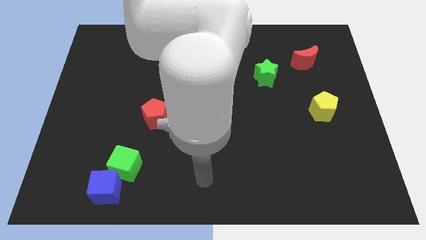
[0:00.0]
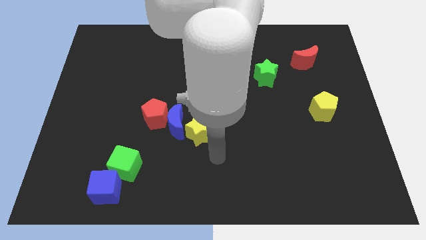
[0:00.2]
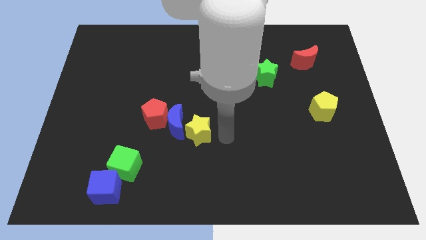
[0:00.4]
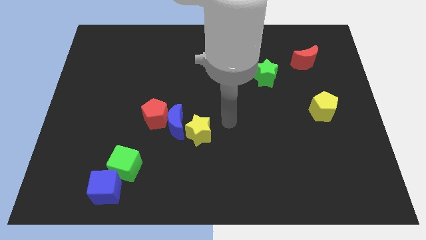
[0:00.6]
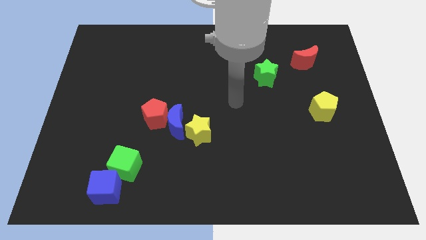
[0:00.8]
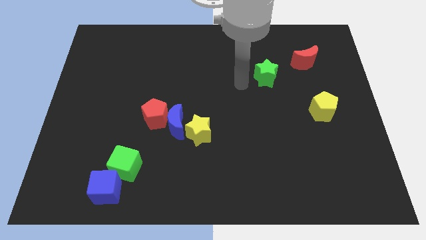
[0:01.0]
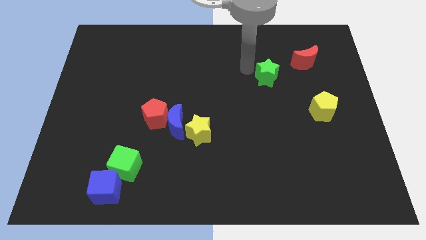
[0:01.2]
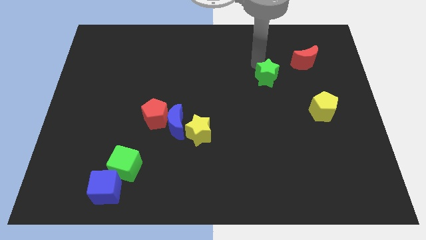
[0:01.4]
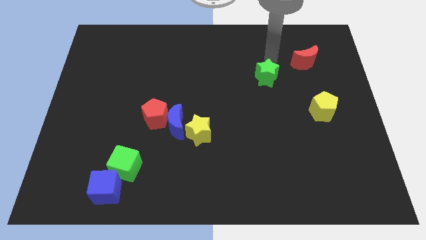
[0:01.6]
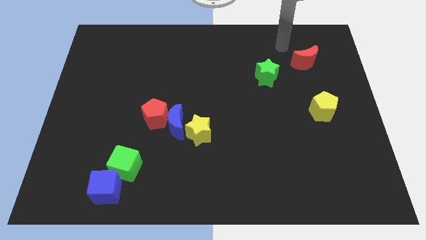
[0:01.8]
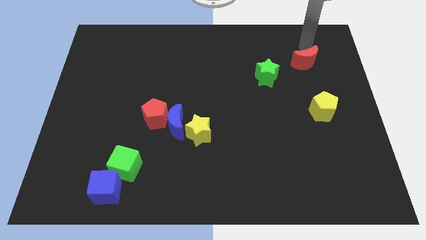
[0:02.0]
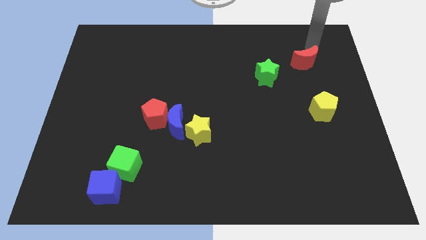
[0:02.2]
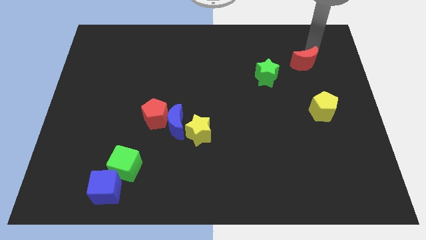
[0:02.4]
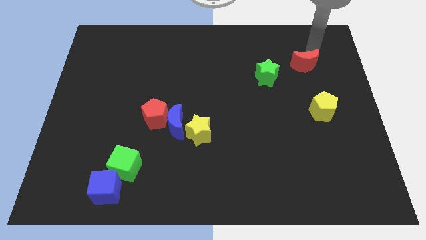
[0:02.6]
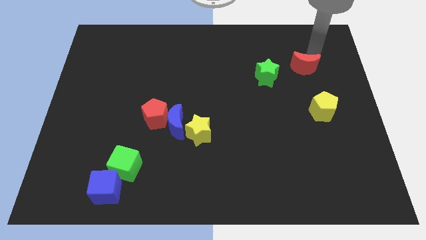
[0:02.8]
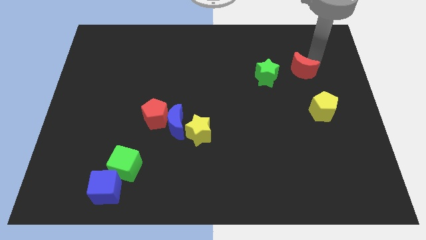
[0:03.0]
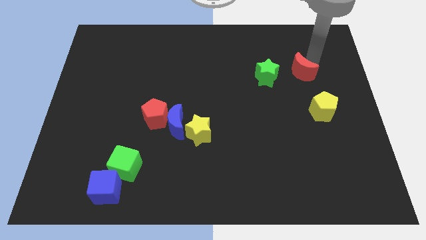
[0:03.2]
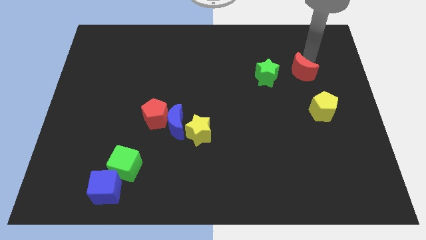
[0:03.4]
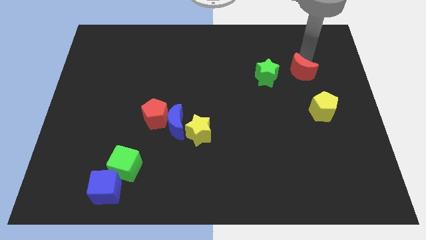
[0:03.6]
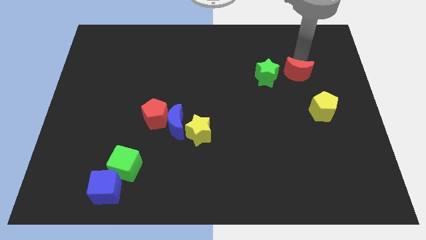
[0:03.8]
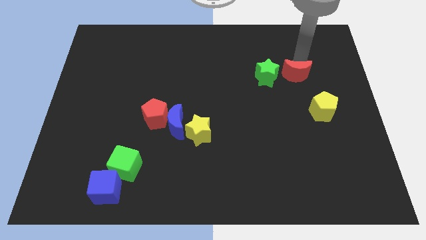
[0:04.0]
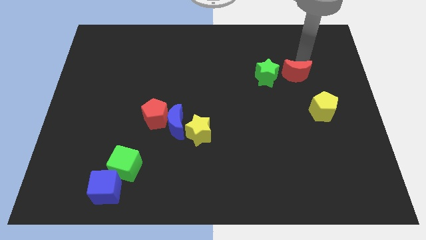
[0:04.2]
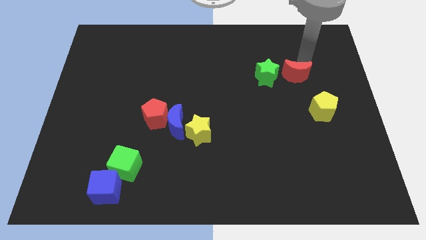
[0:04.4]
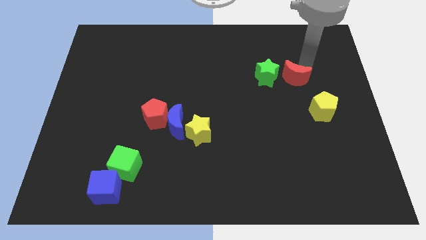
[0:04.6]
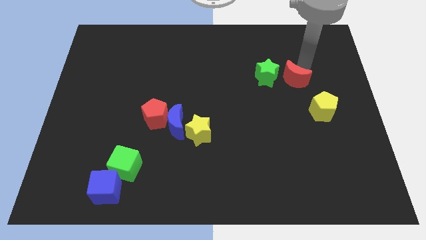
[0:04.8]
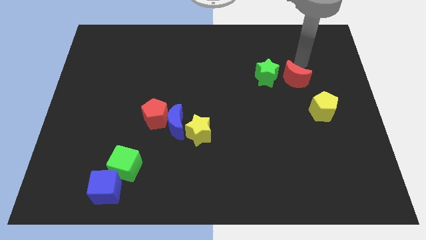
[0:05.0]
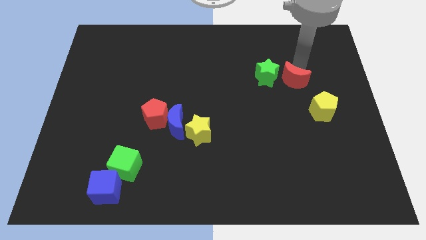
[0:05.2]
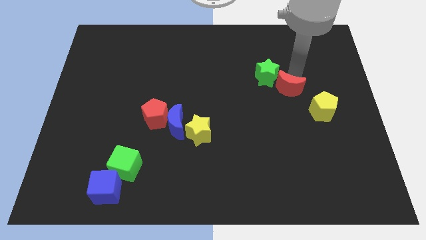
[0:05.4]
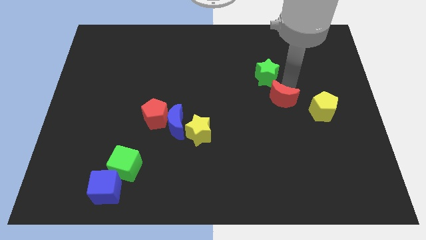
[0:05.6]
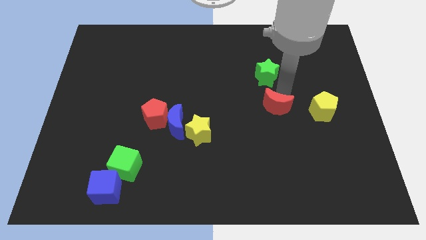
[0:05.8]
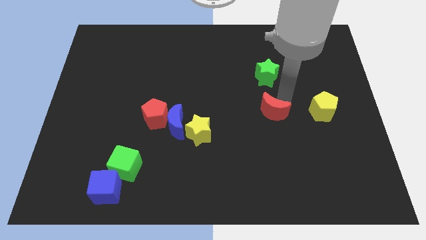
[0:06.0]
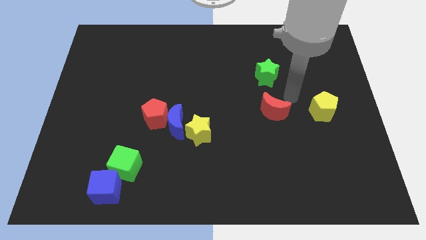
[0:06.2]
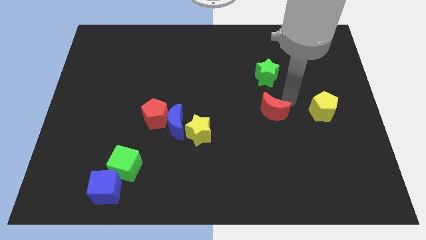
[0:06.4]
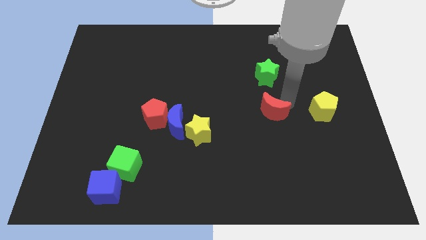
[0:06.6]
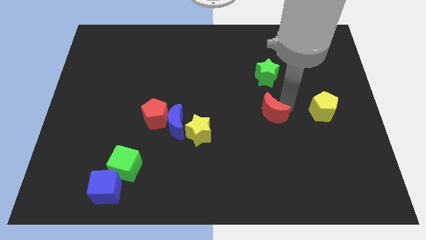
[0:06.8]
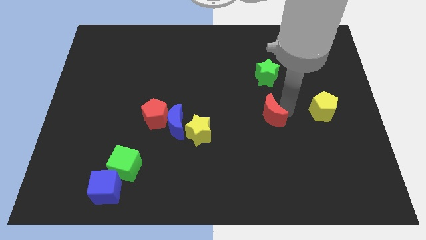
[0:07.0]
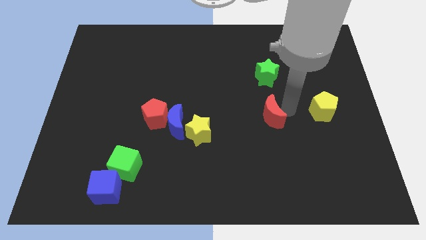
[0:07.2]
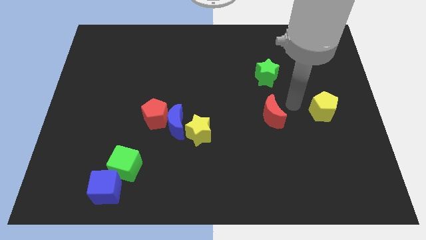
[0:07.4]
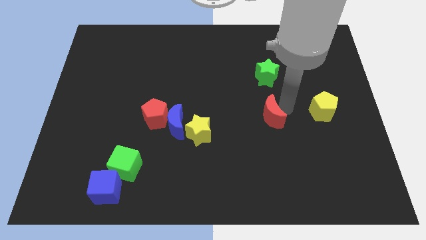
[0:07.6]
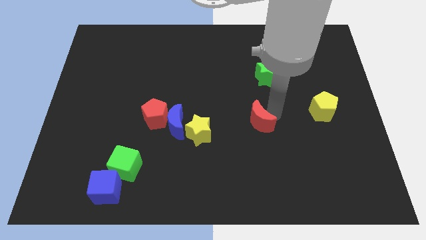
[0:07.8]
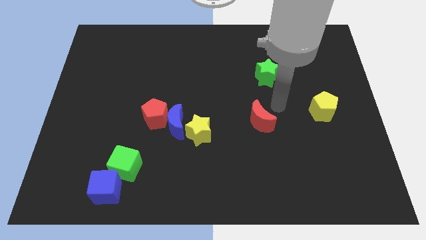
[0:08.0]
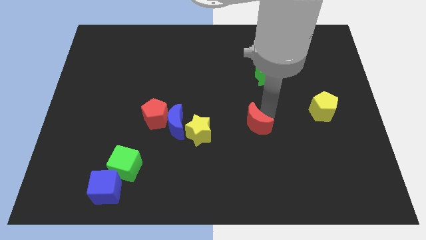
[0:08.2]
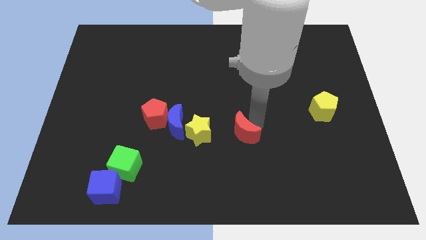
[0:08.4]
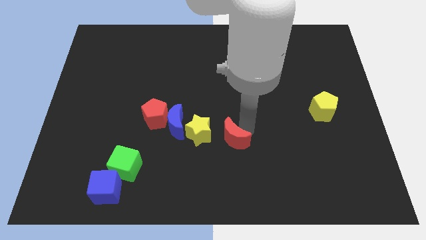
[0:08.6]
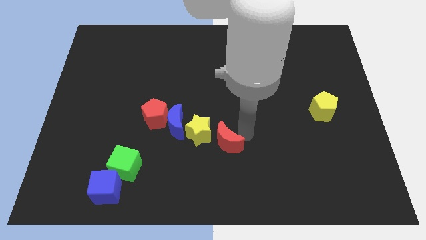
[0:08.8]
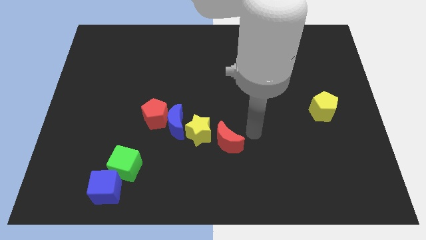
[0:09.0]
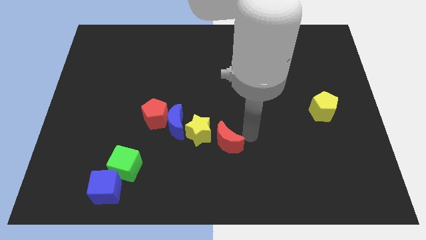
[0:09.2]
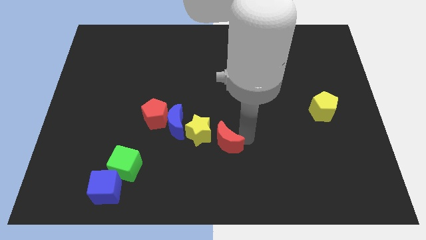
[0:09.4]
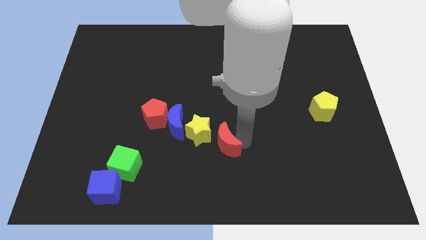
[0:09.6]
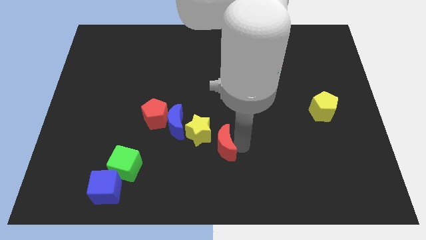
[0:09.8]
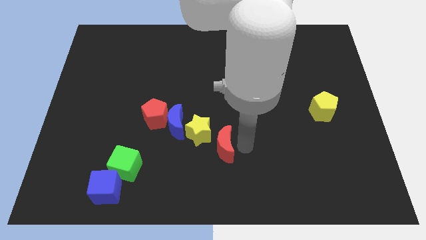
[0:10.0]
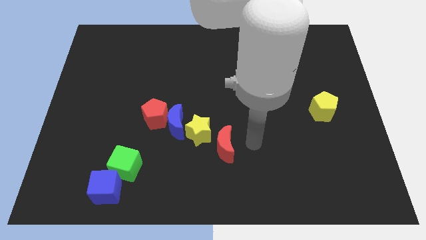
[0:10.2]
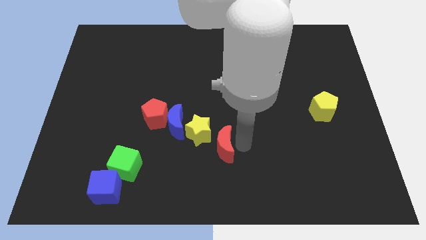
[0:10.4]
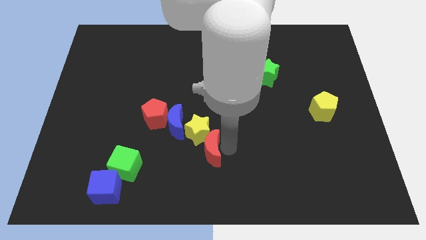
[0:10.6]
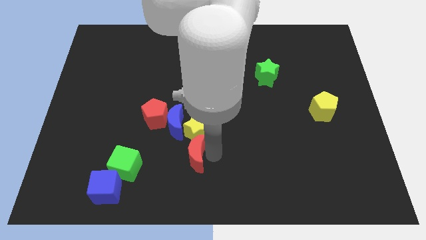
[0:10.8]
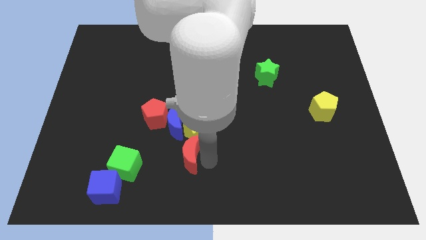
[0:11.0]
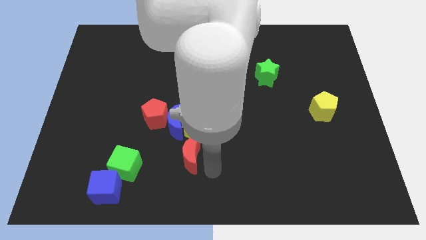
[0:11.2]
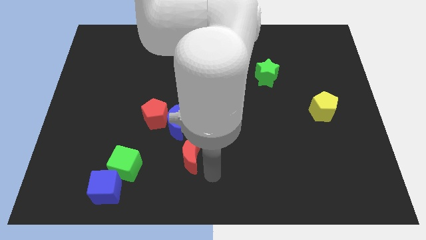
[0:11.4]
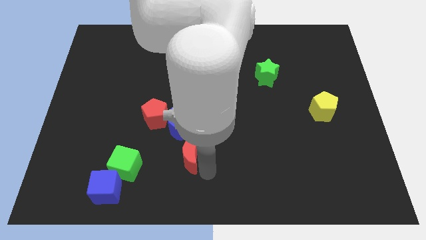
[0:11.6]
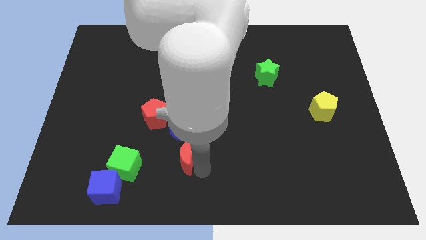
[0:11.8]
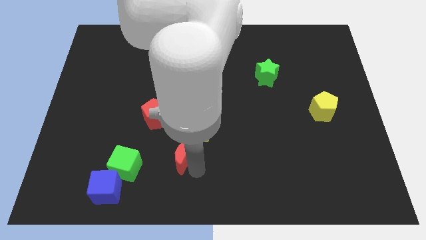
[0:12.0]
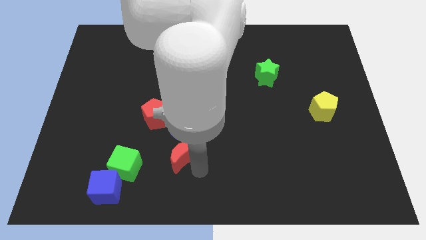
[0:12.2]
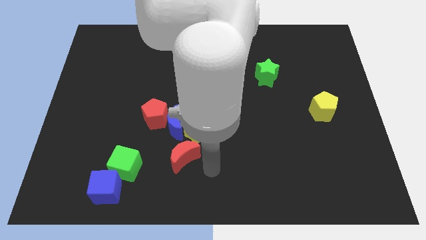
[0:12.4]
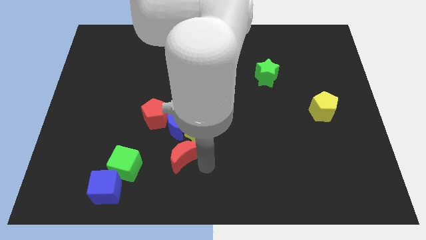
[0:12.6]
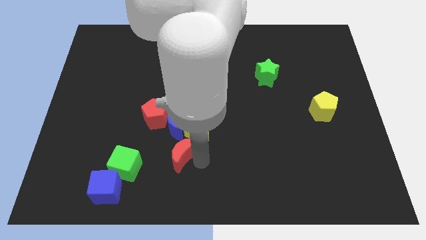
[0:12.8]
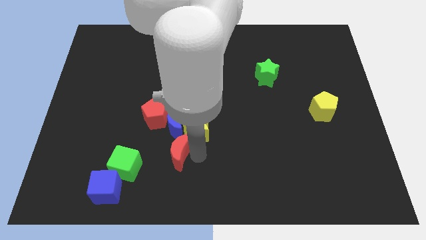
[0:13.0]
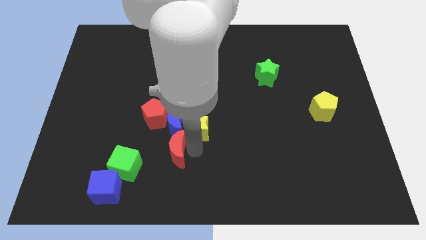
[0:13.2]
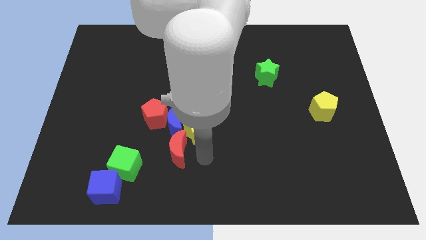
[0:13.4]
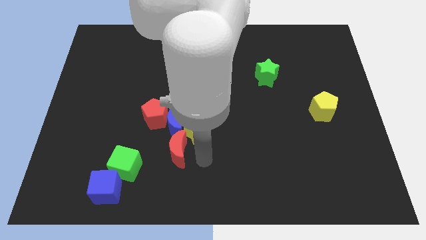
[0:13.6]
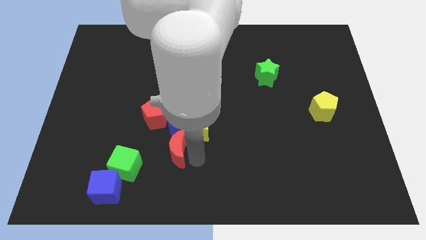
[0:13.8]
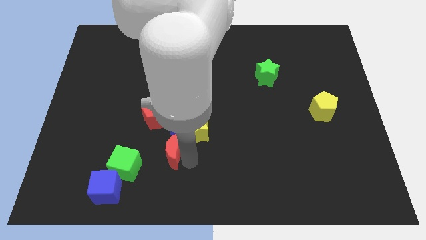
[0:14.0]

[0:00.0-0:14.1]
put the red moon to the top right side of the green cube
